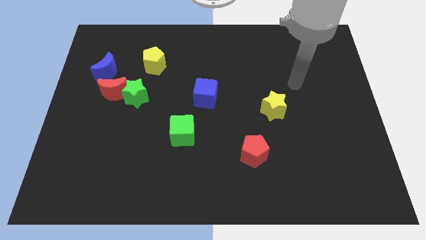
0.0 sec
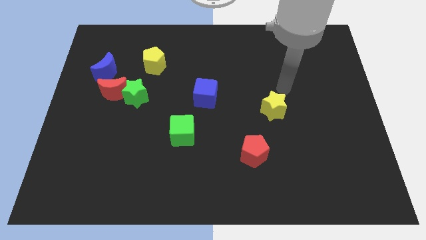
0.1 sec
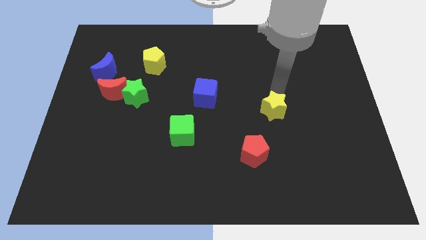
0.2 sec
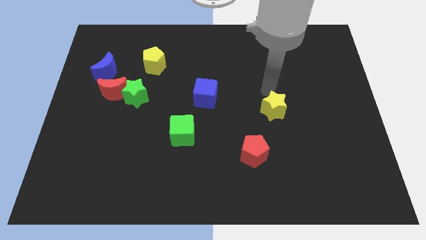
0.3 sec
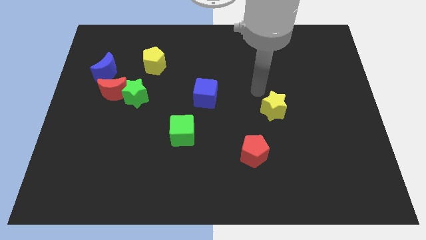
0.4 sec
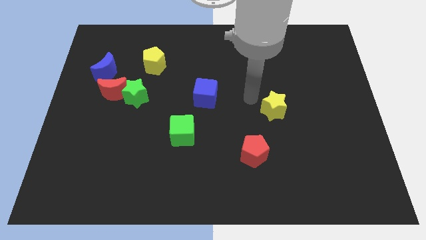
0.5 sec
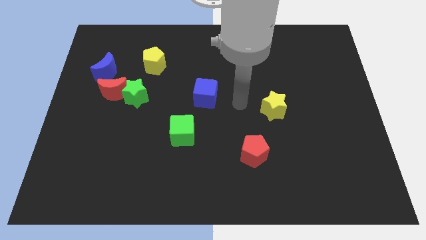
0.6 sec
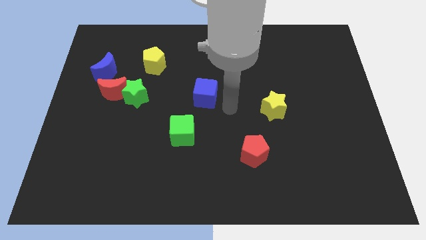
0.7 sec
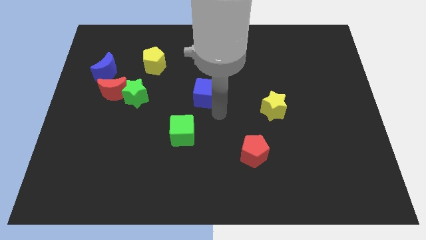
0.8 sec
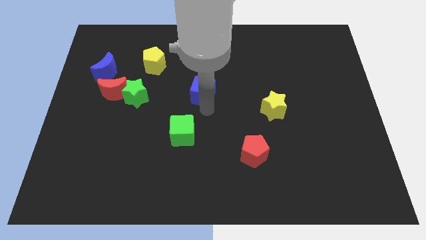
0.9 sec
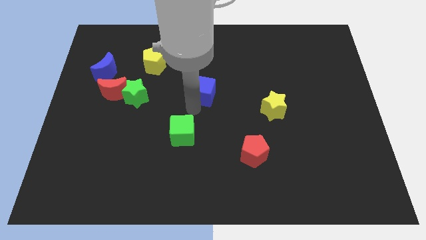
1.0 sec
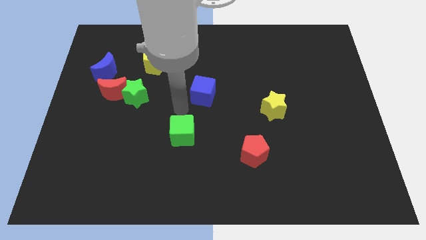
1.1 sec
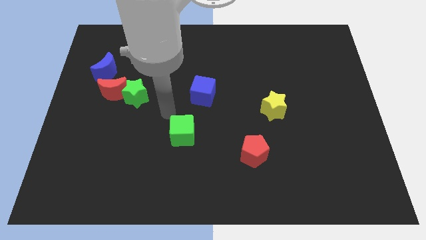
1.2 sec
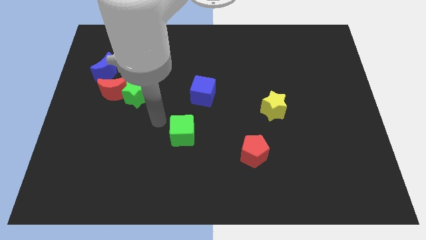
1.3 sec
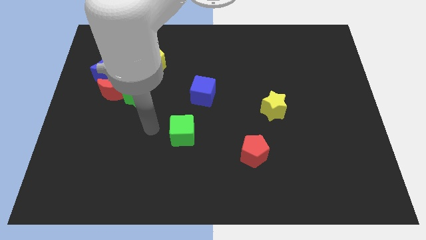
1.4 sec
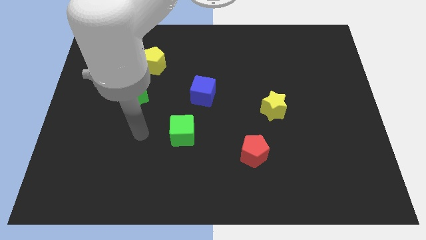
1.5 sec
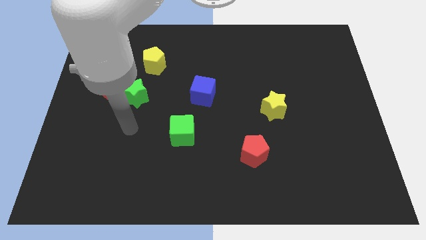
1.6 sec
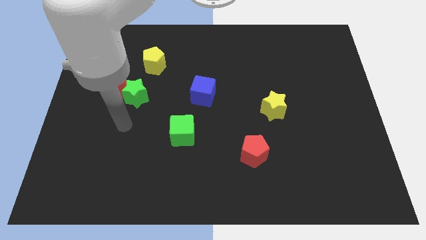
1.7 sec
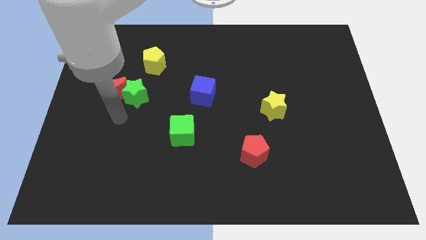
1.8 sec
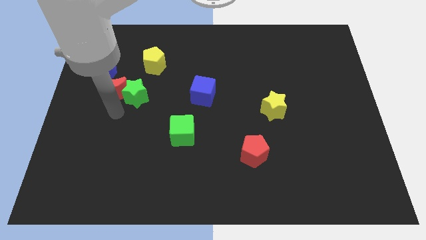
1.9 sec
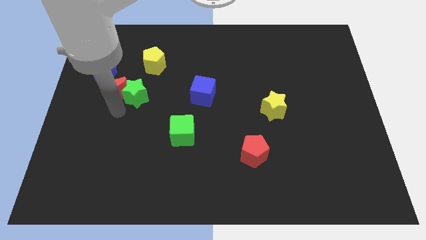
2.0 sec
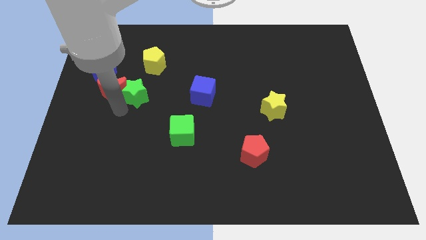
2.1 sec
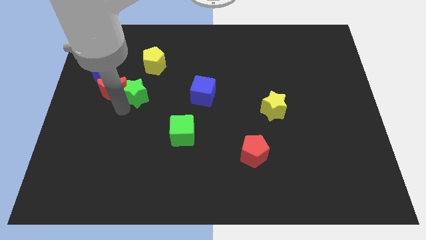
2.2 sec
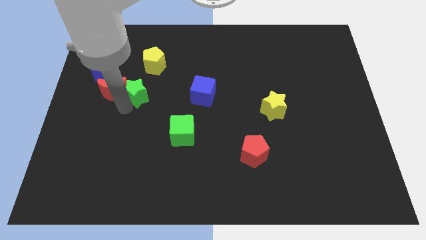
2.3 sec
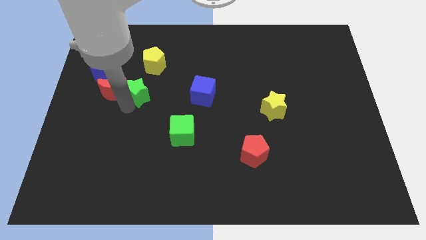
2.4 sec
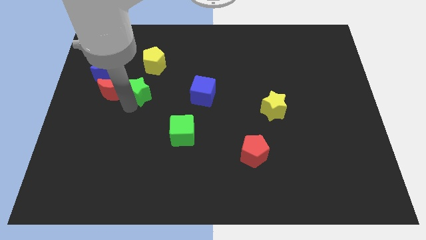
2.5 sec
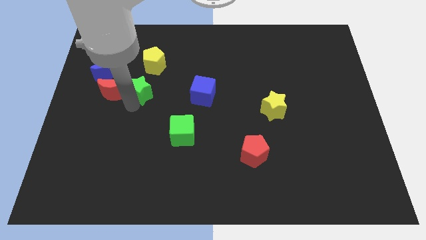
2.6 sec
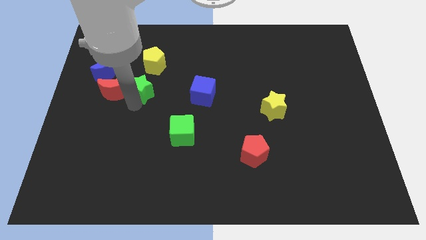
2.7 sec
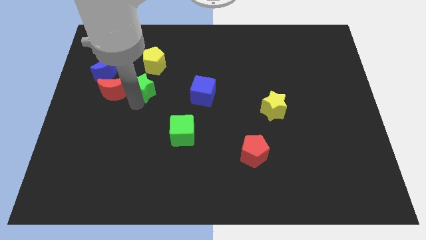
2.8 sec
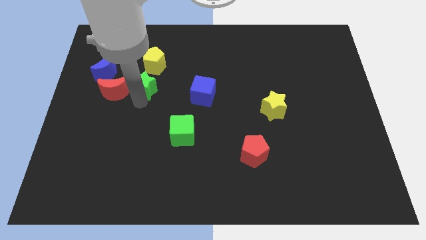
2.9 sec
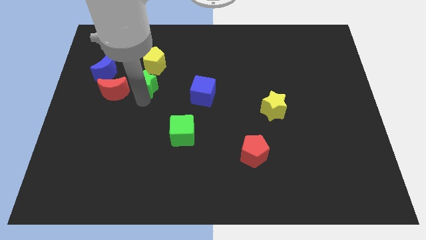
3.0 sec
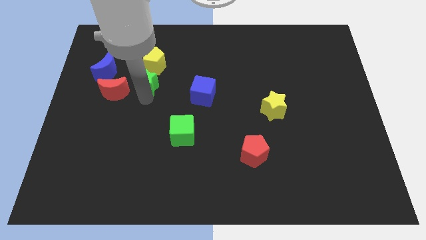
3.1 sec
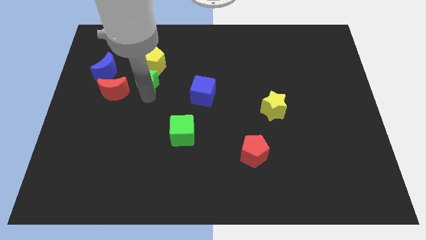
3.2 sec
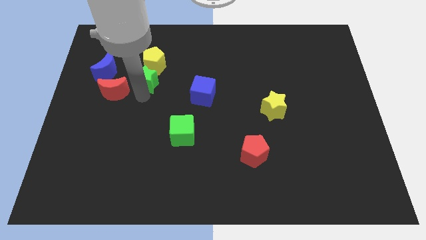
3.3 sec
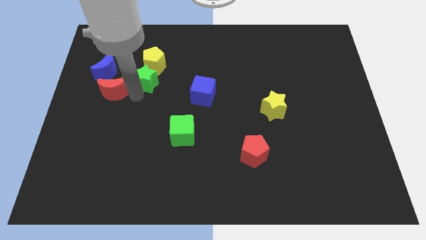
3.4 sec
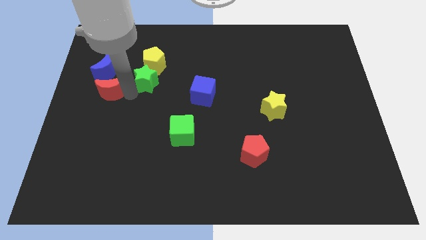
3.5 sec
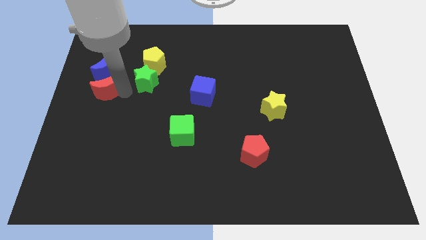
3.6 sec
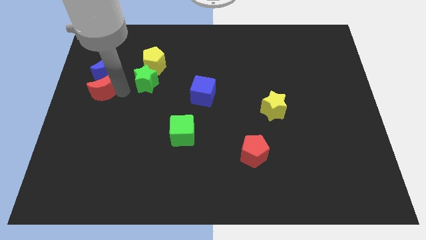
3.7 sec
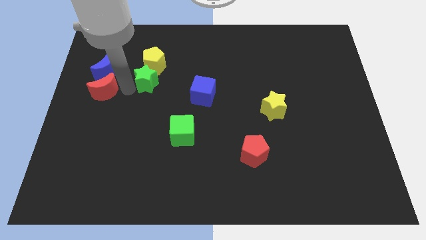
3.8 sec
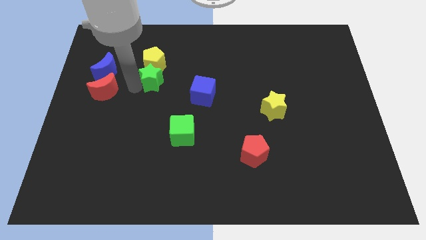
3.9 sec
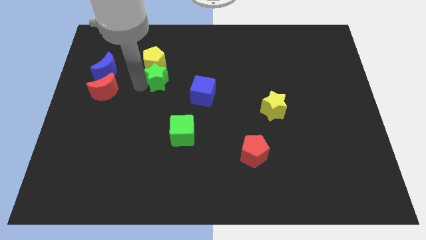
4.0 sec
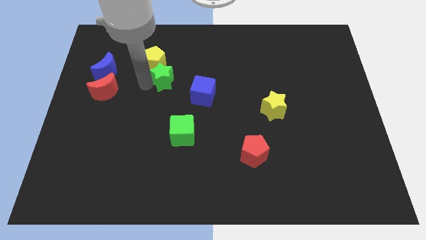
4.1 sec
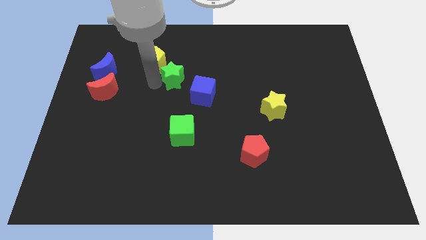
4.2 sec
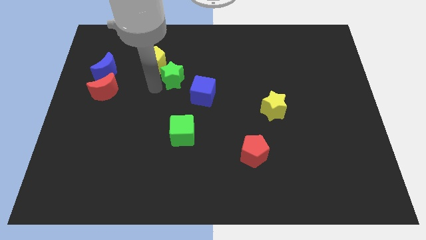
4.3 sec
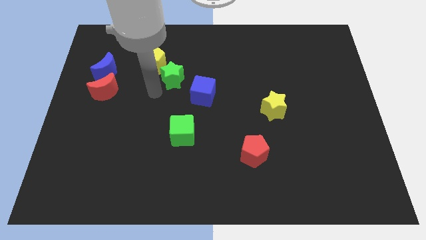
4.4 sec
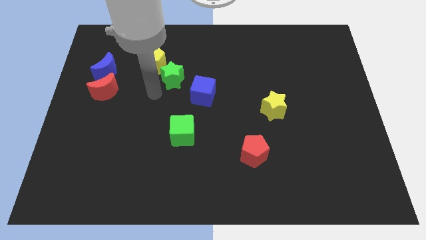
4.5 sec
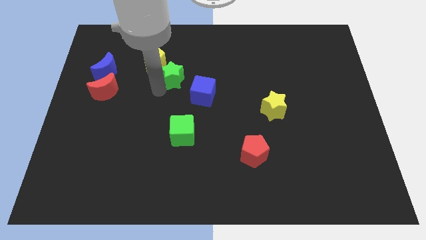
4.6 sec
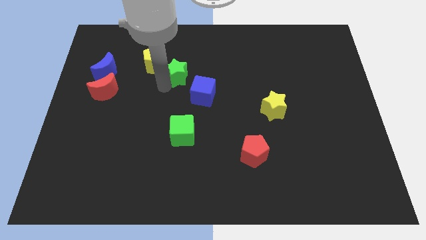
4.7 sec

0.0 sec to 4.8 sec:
move the green star to the right of the yellow pentagon

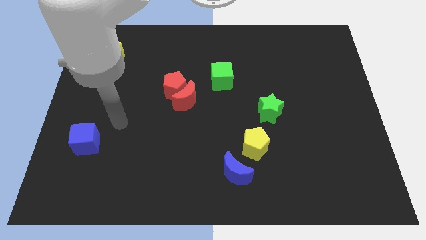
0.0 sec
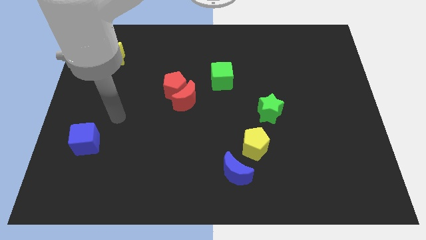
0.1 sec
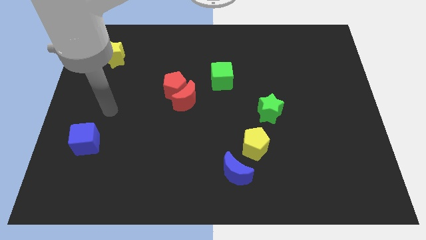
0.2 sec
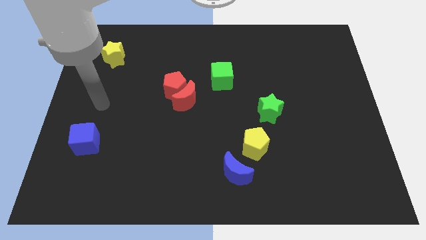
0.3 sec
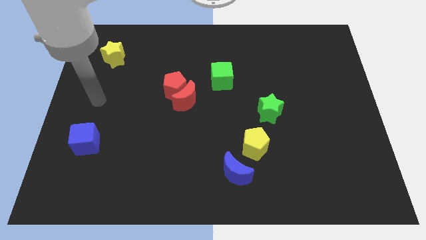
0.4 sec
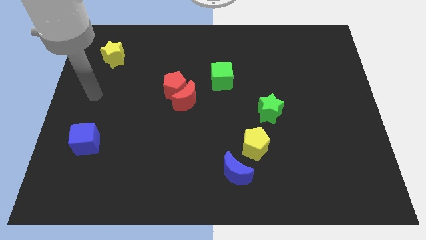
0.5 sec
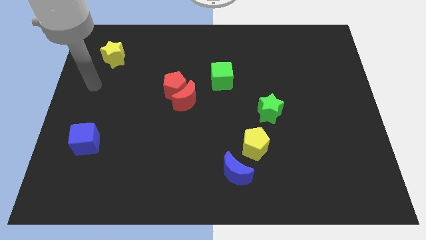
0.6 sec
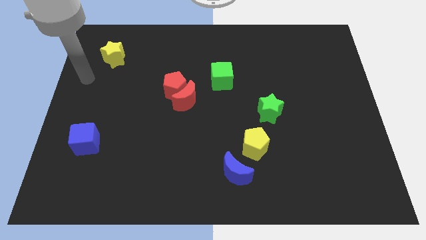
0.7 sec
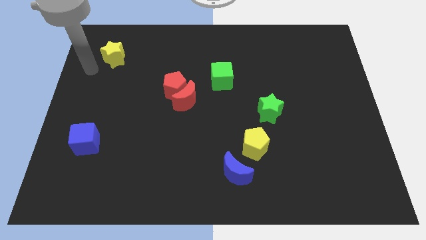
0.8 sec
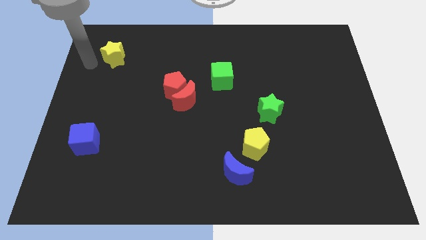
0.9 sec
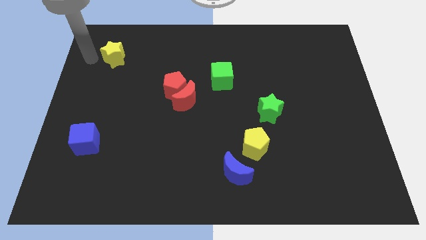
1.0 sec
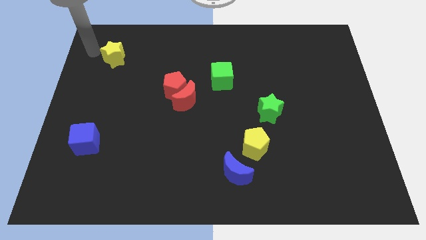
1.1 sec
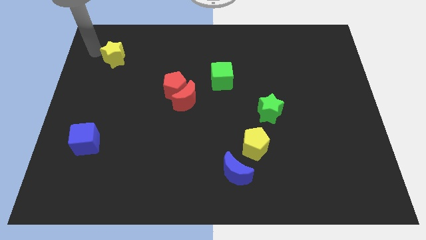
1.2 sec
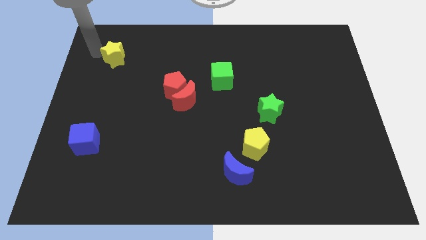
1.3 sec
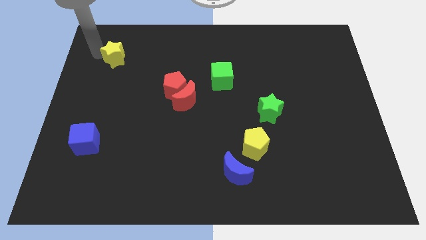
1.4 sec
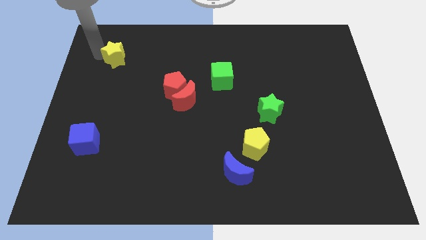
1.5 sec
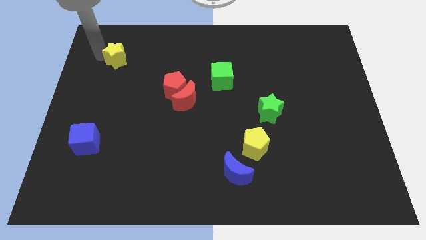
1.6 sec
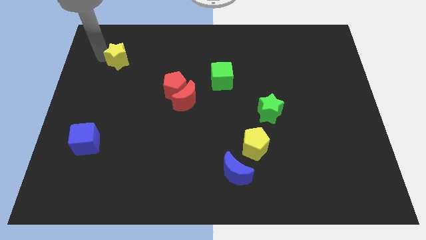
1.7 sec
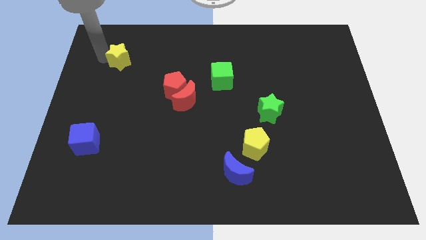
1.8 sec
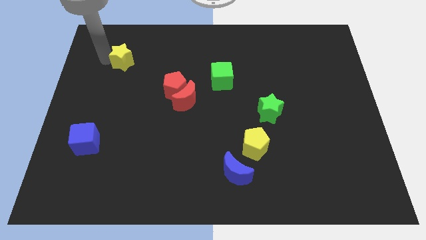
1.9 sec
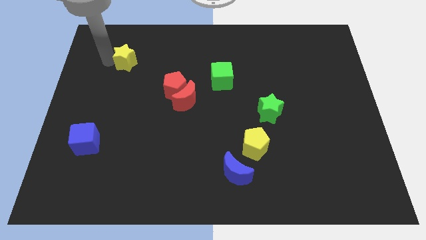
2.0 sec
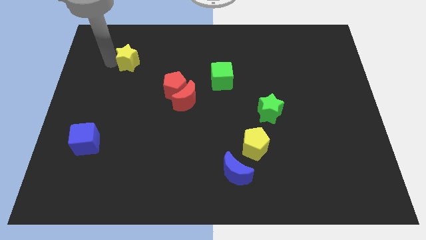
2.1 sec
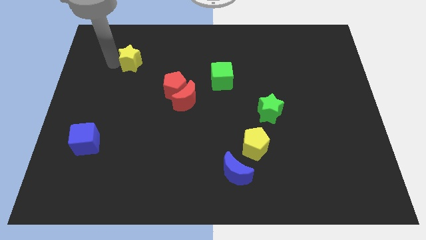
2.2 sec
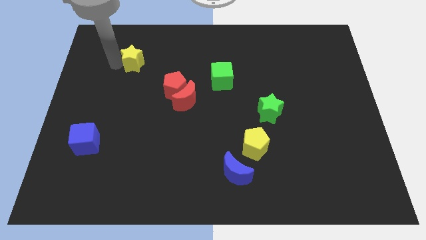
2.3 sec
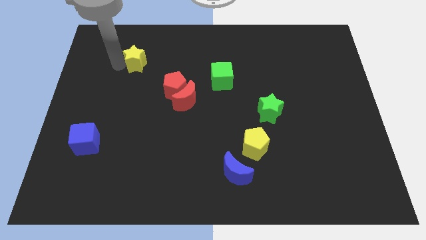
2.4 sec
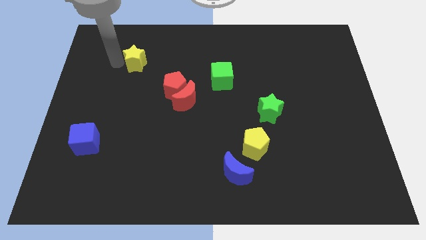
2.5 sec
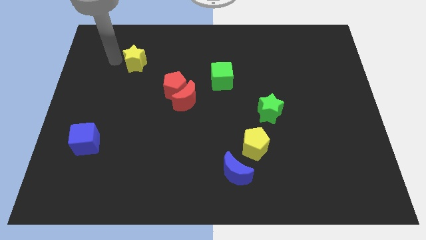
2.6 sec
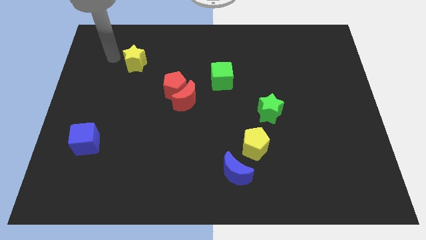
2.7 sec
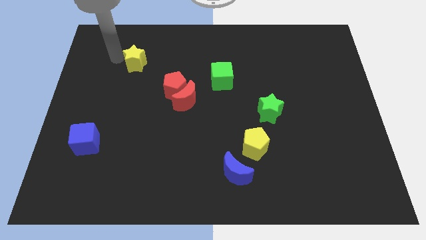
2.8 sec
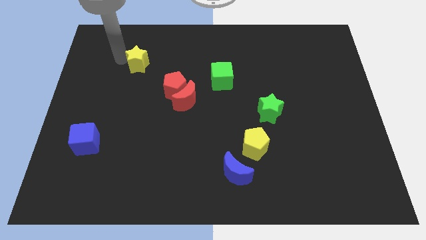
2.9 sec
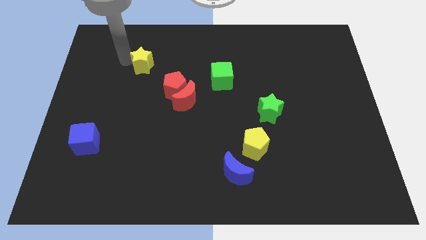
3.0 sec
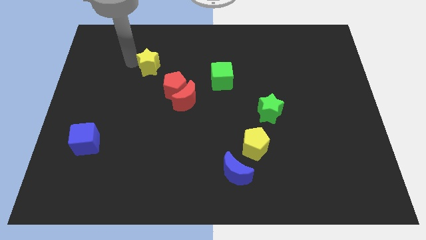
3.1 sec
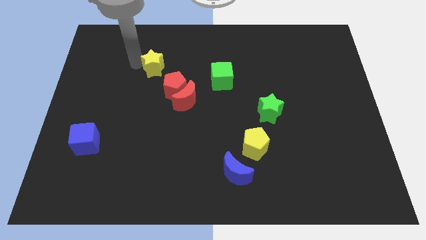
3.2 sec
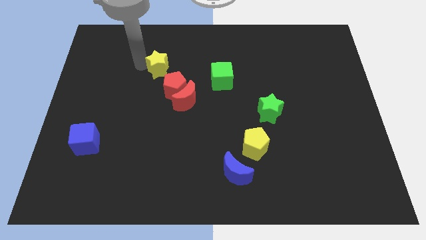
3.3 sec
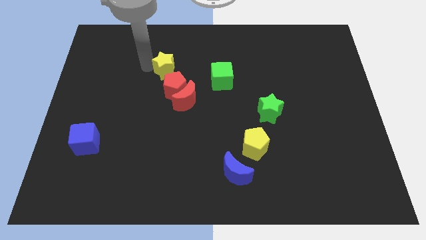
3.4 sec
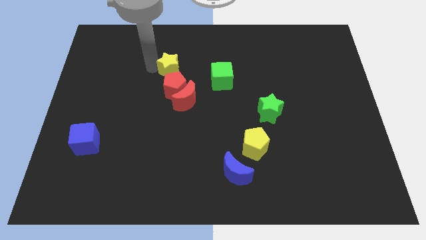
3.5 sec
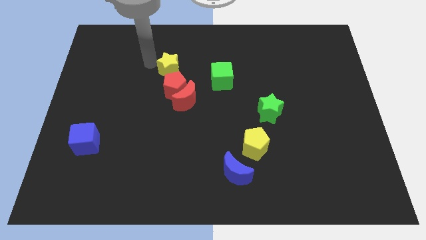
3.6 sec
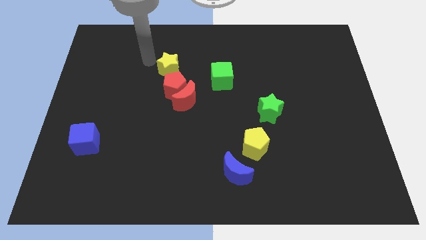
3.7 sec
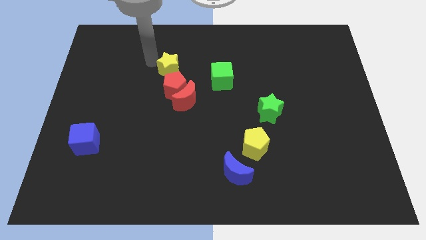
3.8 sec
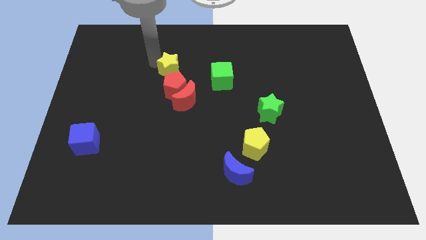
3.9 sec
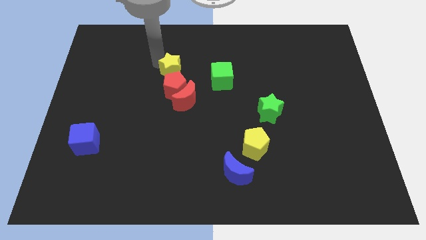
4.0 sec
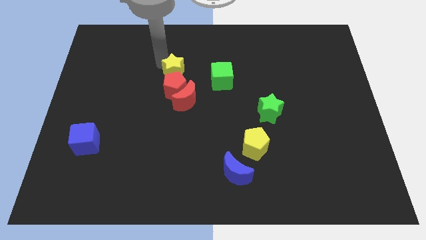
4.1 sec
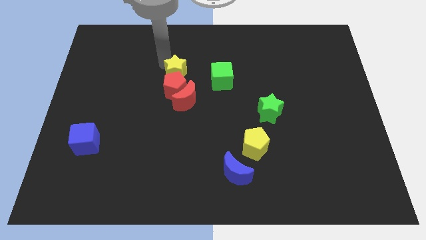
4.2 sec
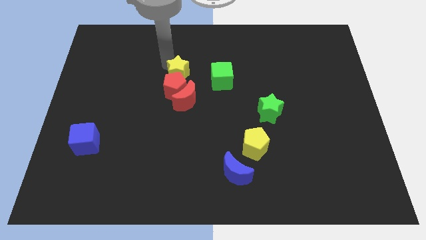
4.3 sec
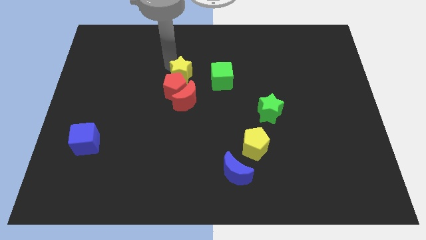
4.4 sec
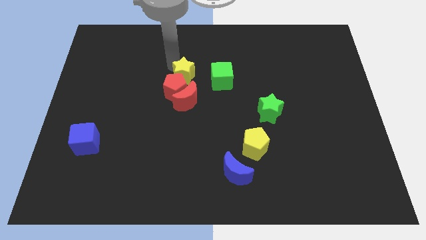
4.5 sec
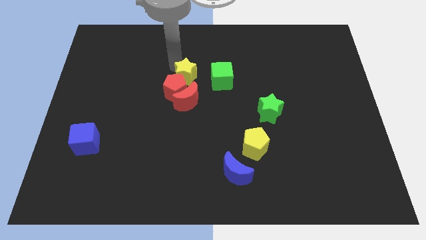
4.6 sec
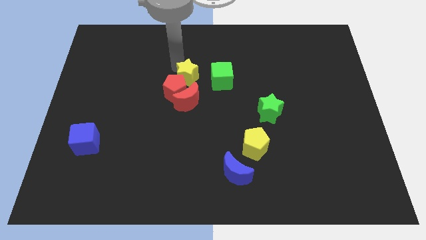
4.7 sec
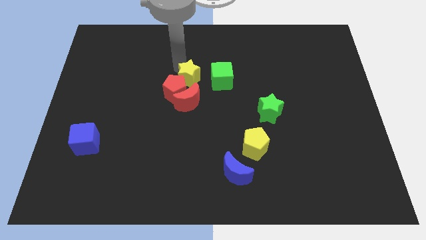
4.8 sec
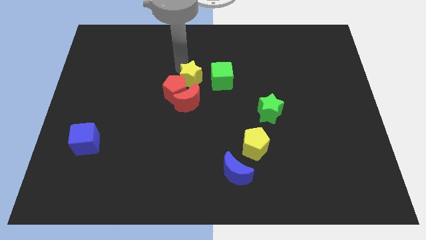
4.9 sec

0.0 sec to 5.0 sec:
slide the yellow star to the right side of the red pentagon
